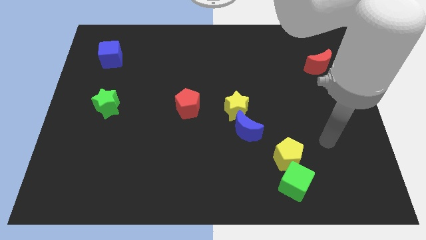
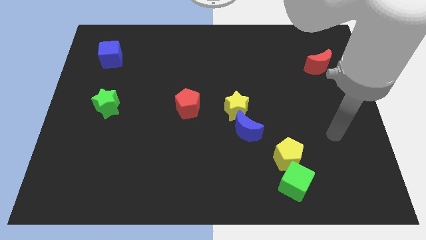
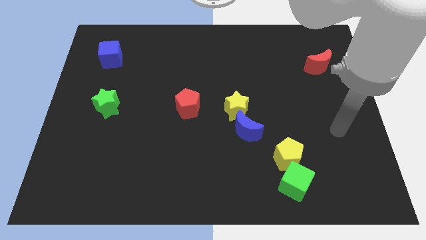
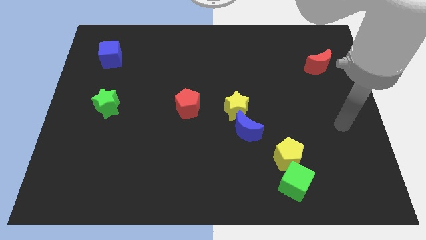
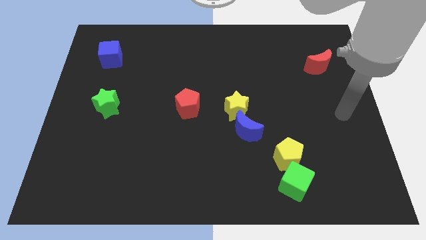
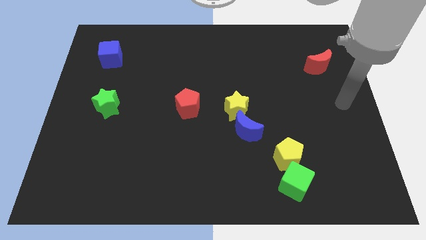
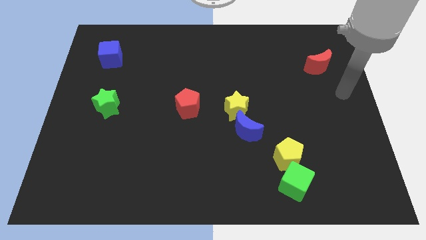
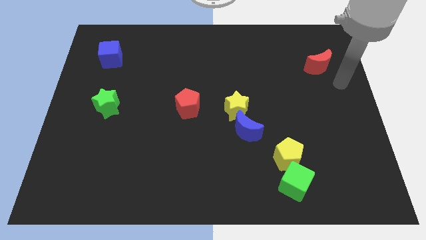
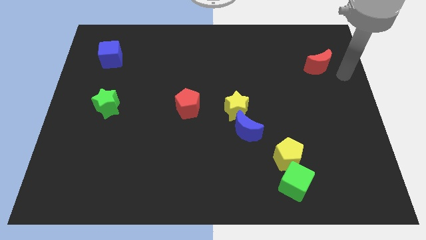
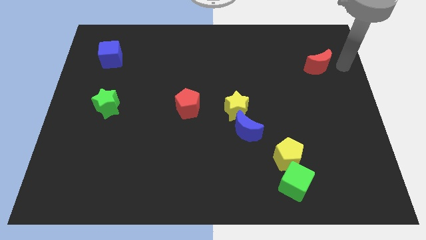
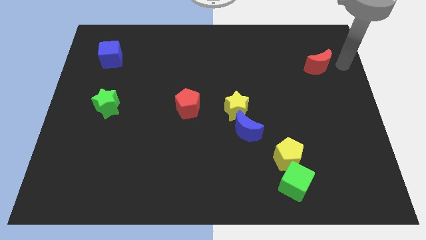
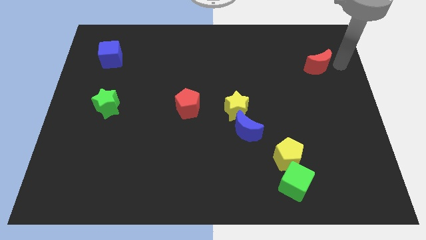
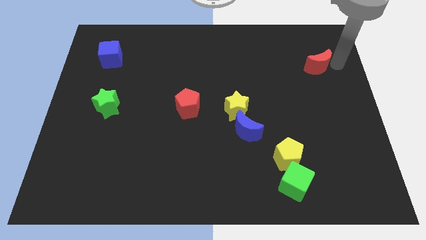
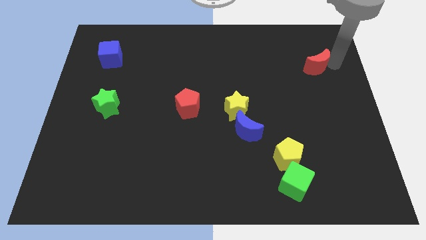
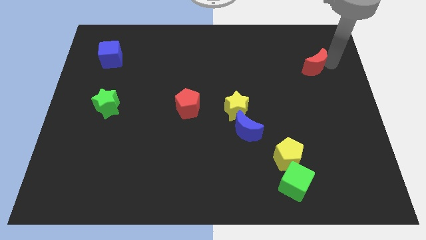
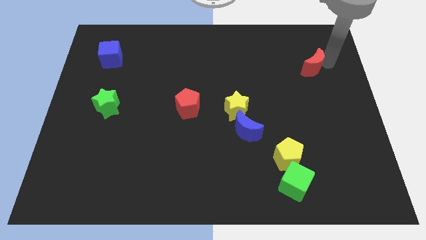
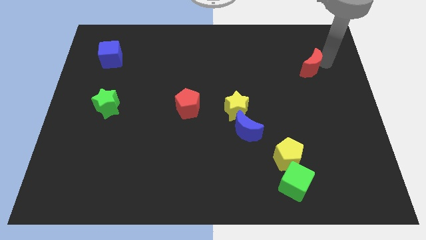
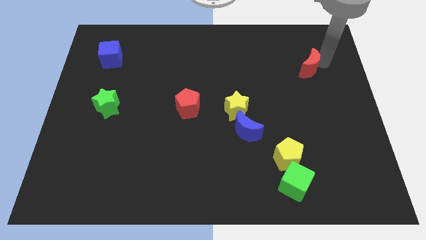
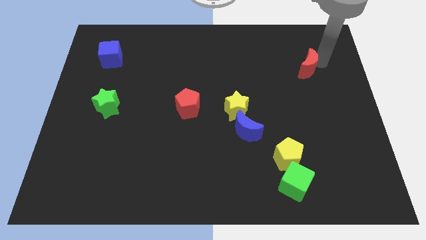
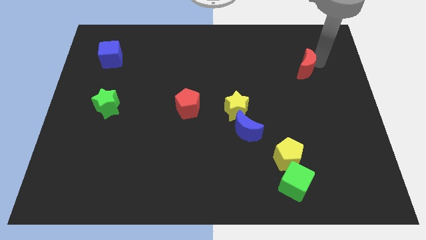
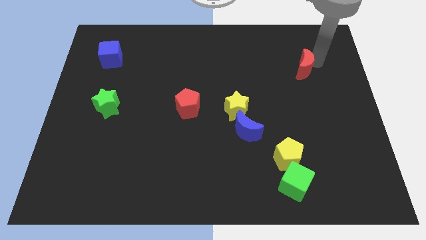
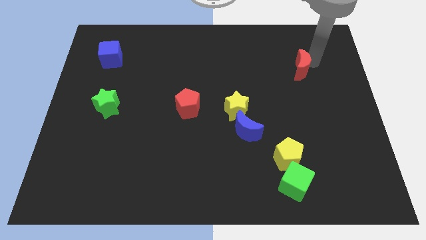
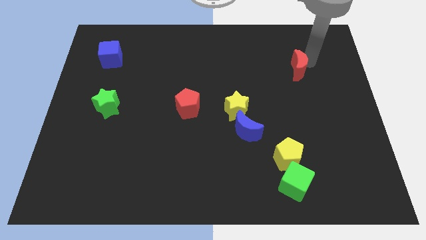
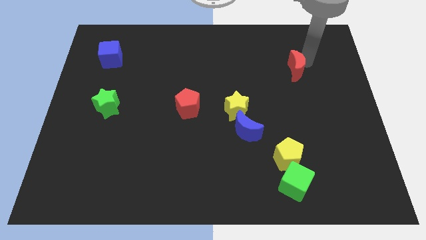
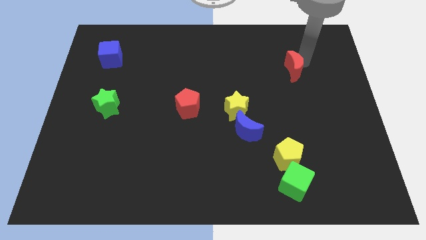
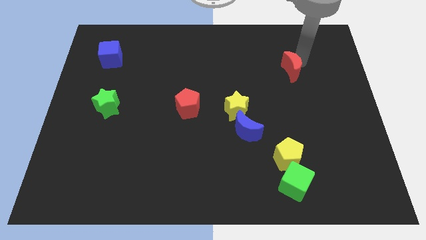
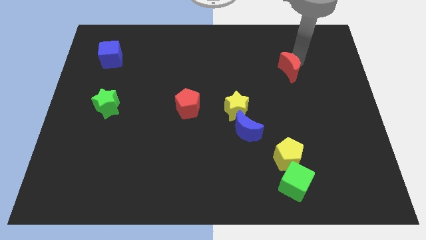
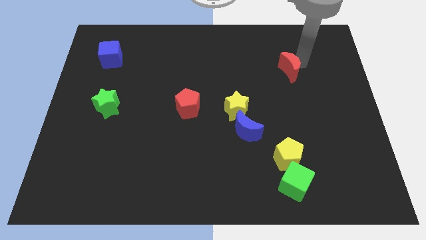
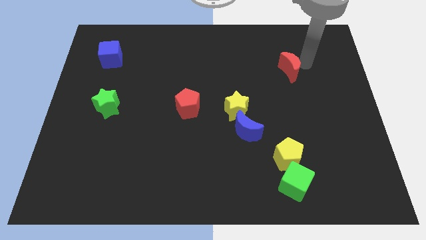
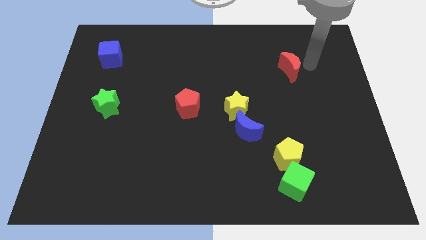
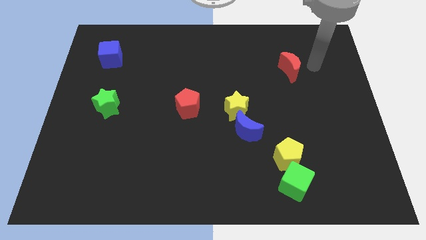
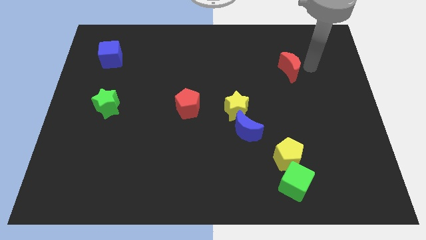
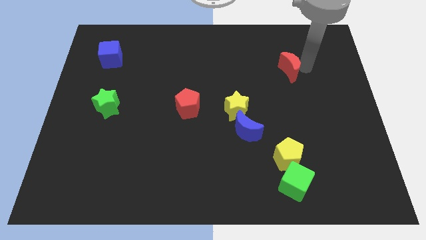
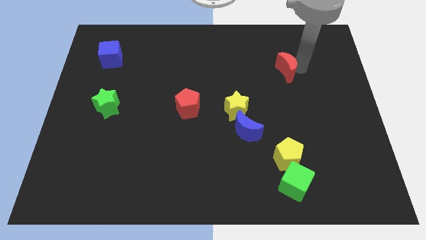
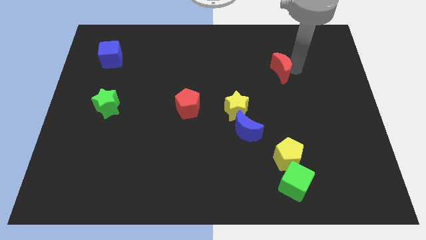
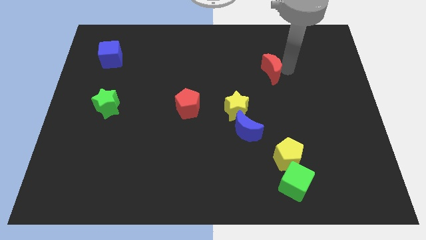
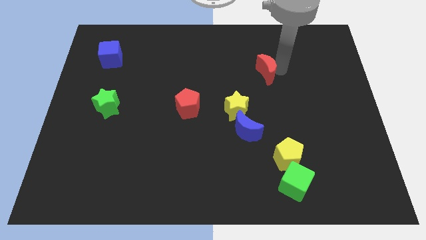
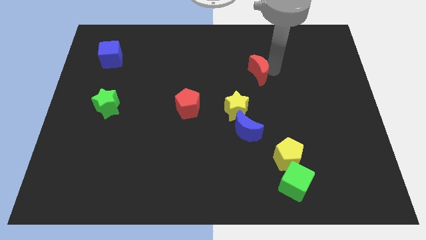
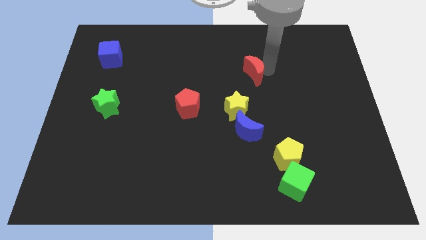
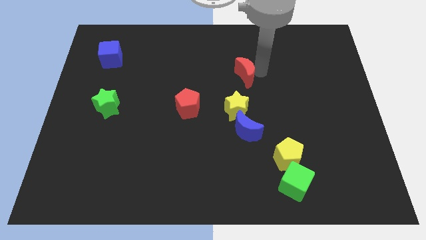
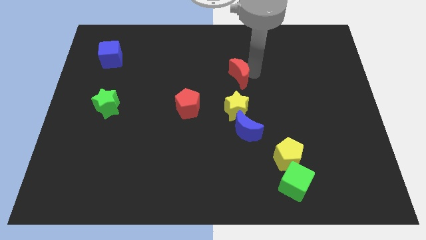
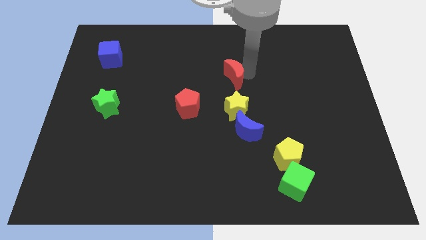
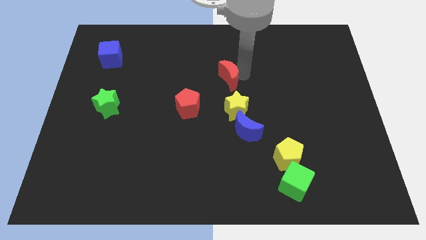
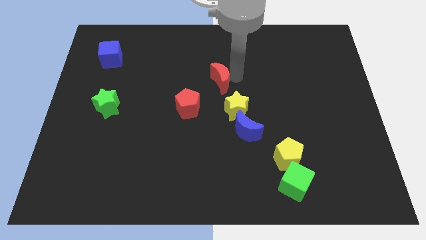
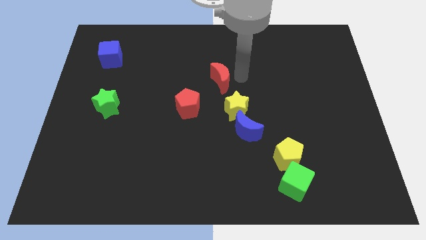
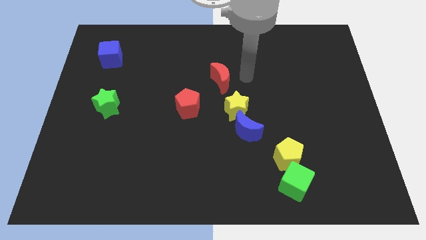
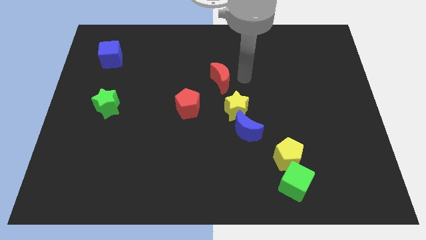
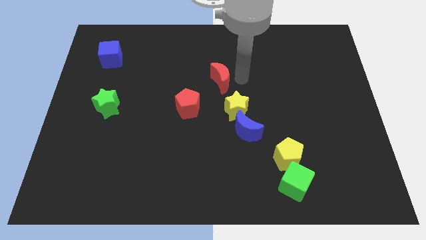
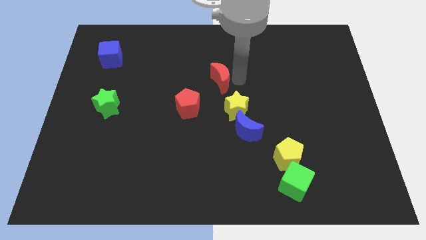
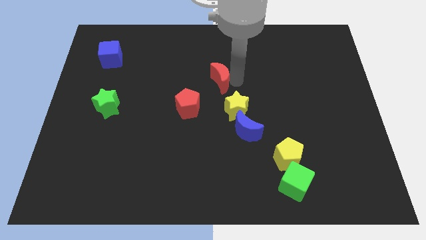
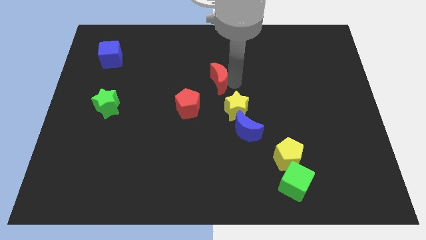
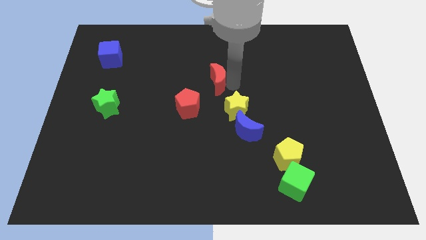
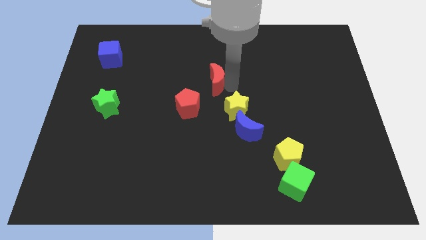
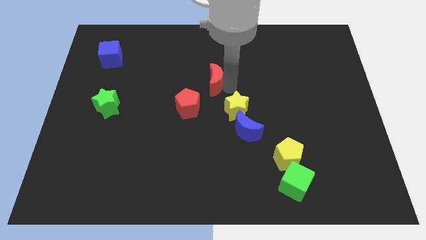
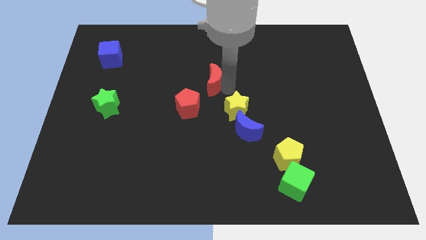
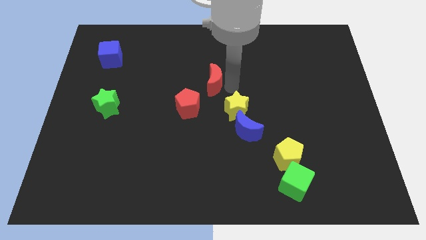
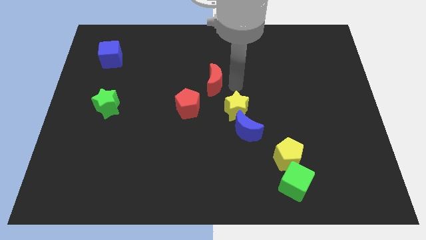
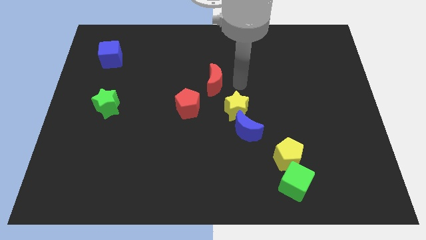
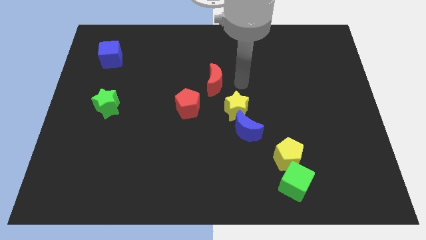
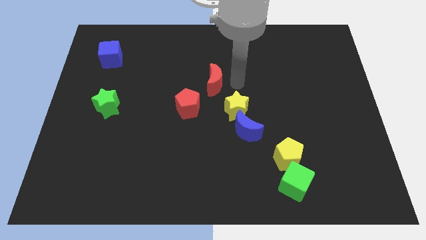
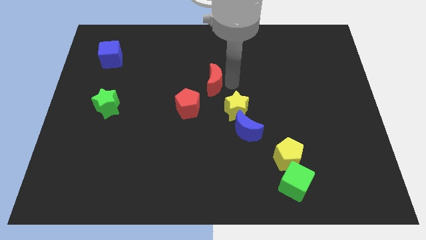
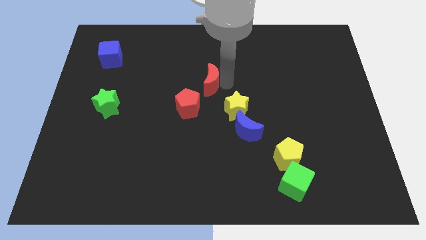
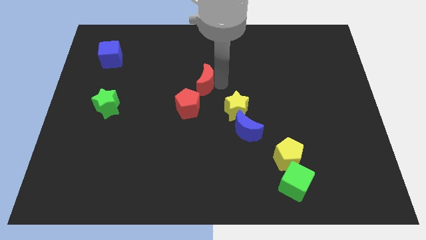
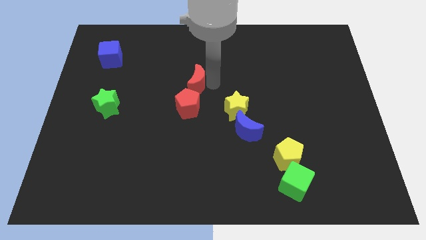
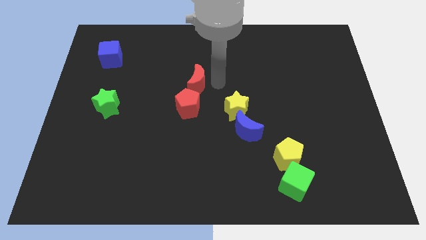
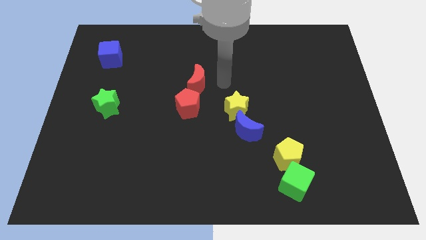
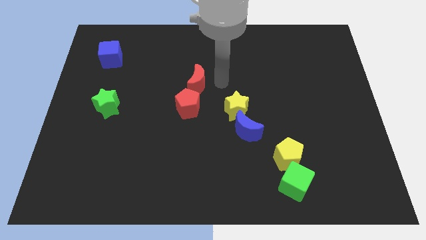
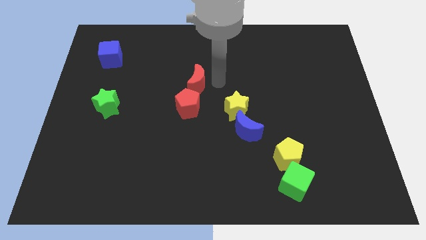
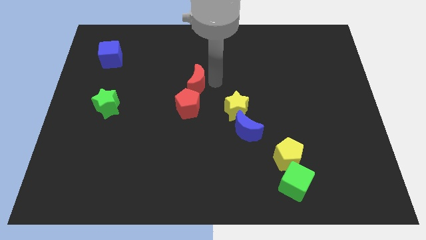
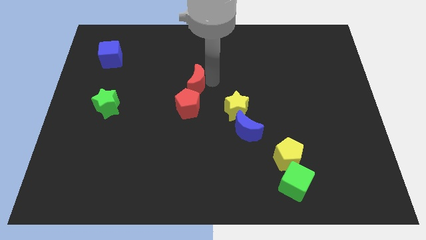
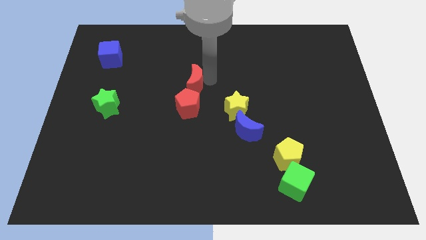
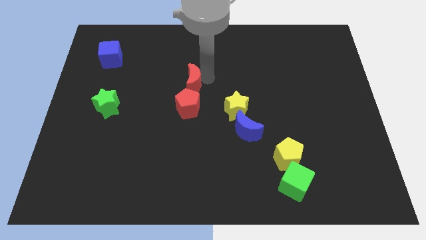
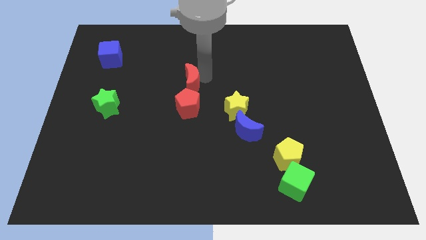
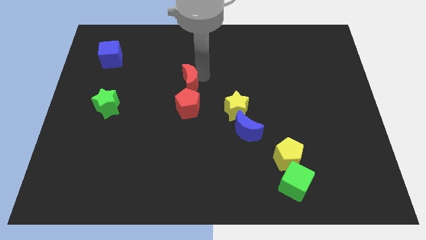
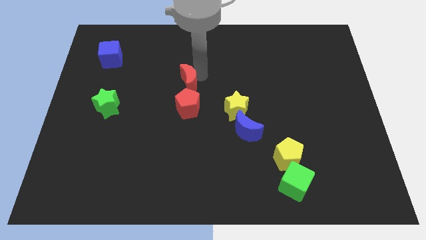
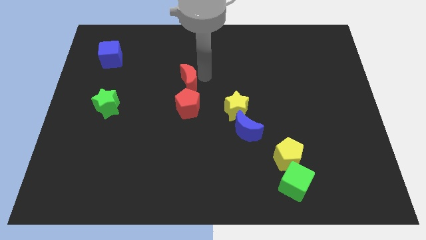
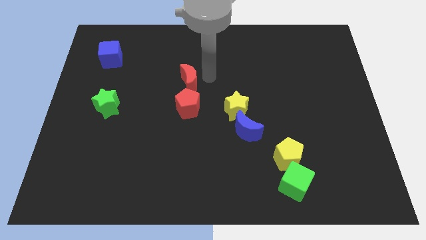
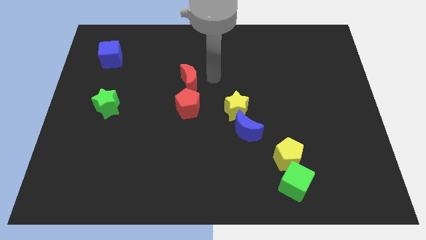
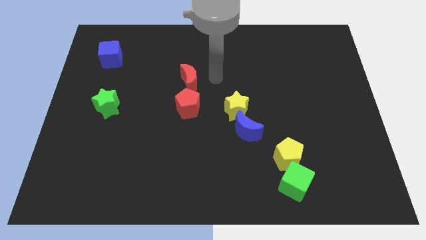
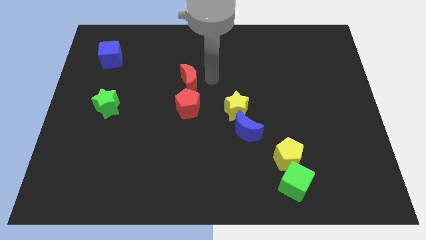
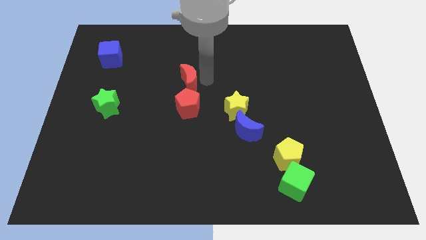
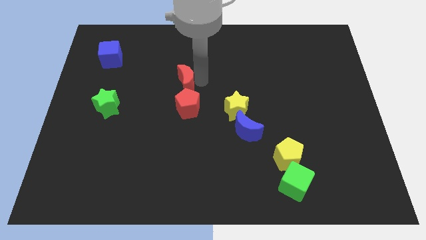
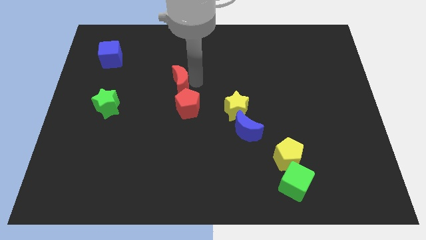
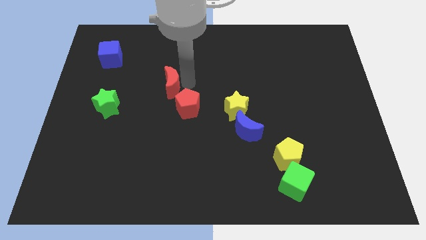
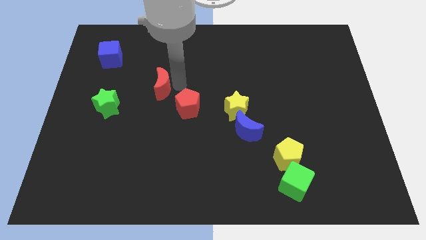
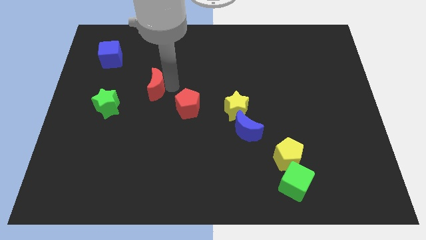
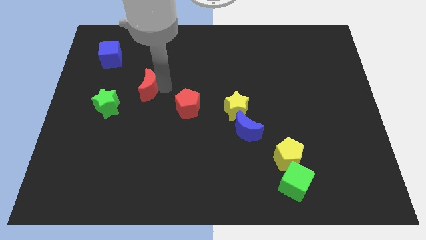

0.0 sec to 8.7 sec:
put the red moon to the top right of the green star
